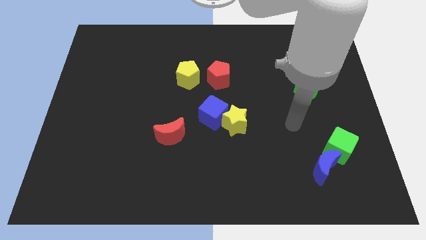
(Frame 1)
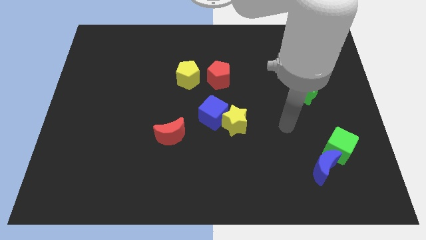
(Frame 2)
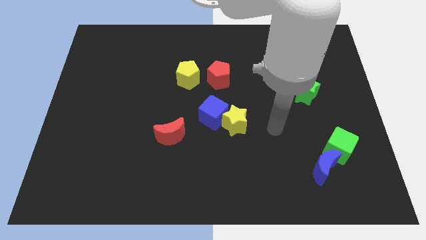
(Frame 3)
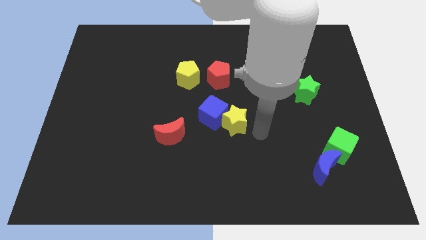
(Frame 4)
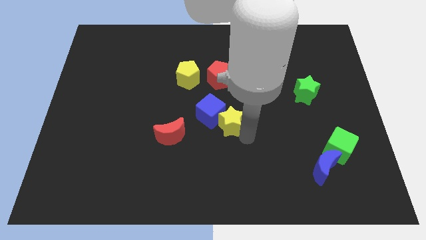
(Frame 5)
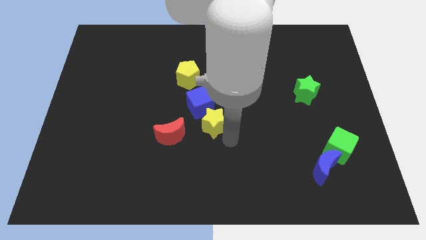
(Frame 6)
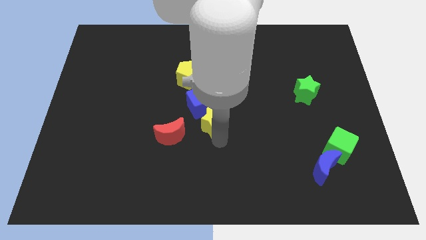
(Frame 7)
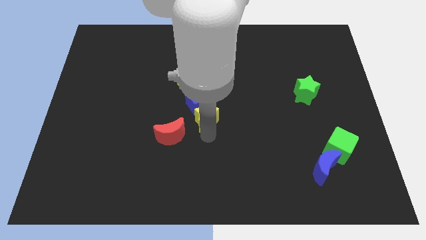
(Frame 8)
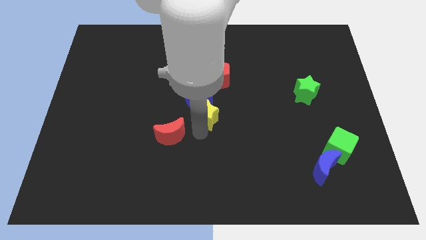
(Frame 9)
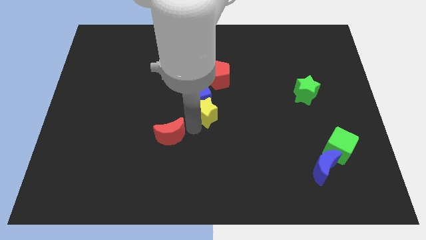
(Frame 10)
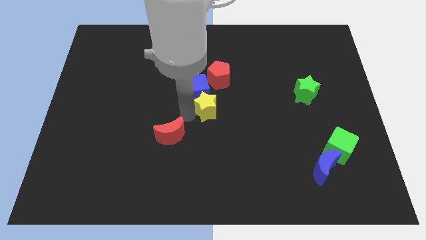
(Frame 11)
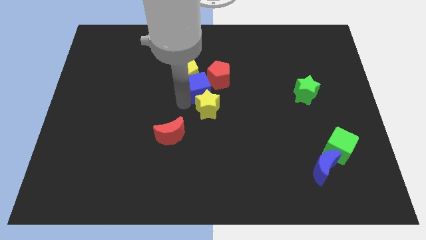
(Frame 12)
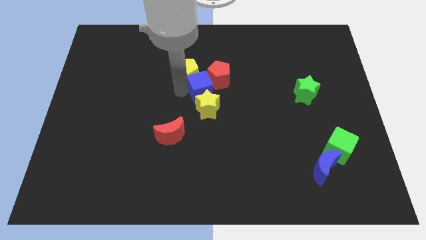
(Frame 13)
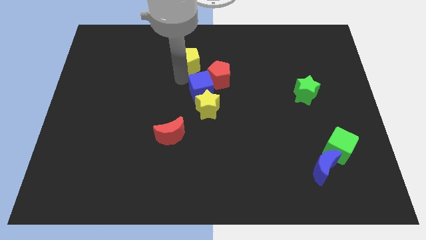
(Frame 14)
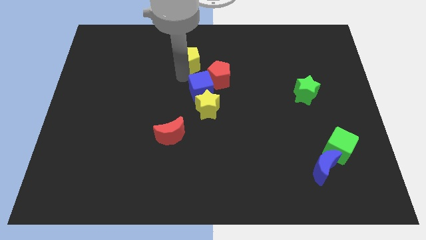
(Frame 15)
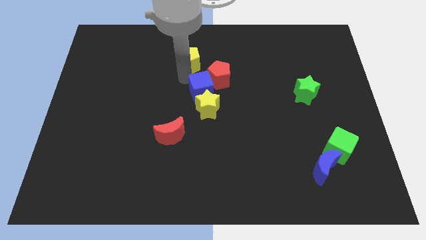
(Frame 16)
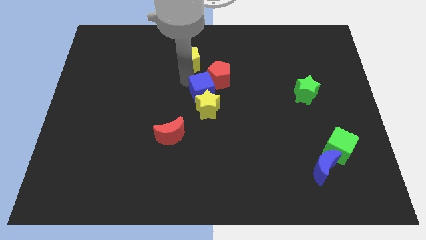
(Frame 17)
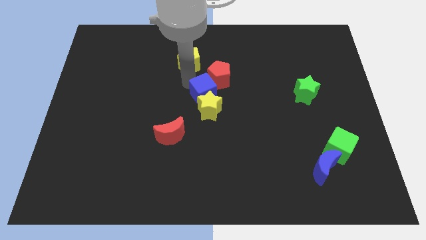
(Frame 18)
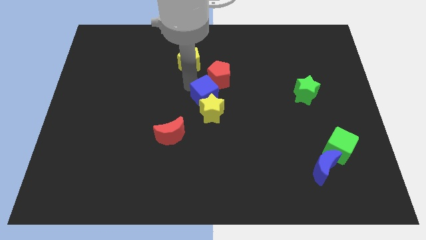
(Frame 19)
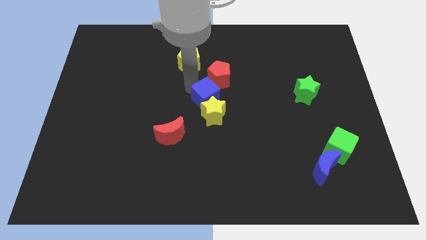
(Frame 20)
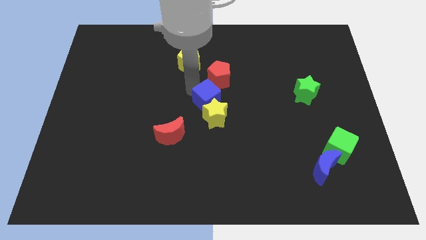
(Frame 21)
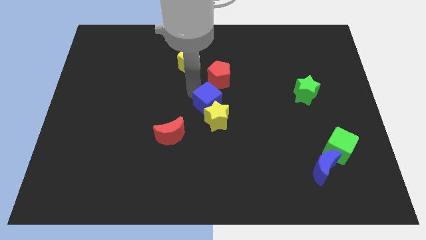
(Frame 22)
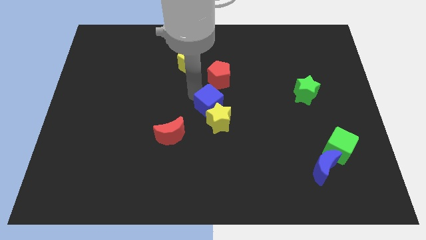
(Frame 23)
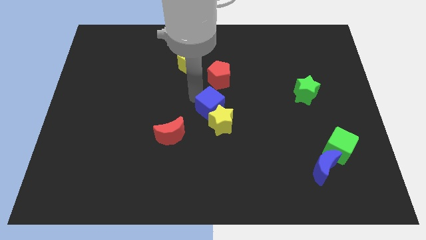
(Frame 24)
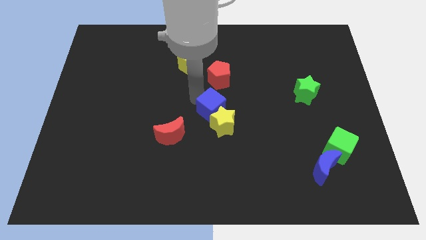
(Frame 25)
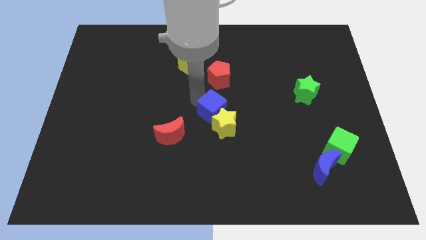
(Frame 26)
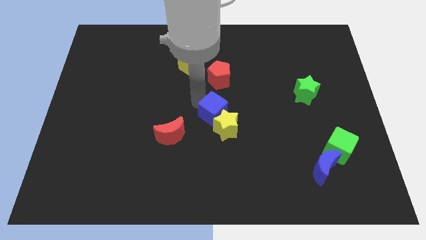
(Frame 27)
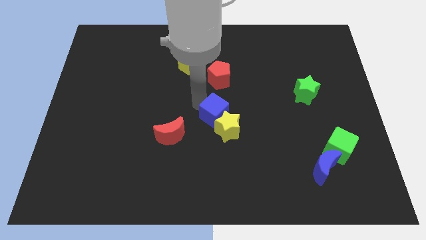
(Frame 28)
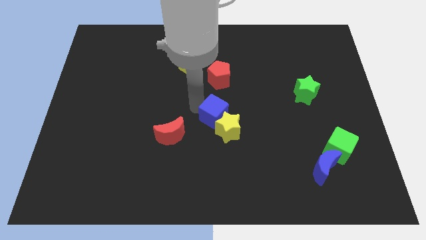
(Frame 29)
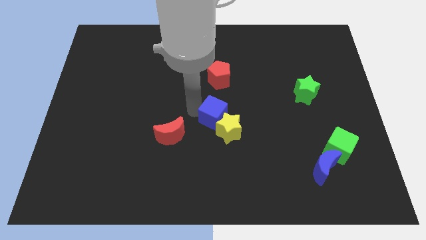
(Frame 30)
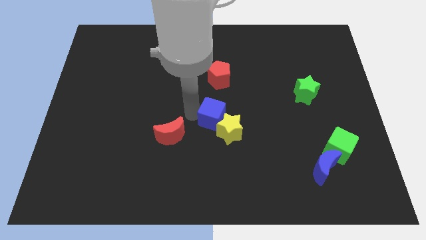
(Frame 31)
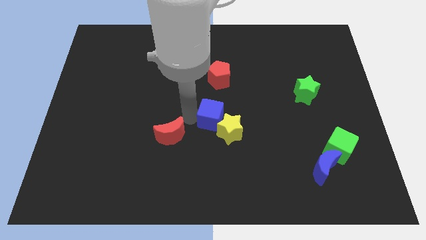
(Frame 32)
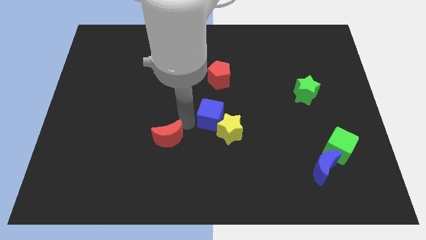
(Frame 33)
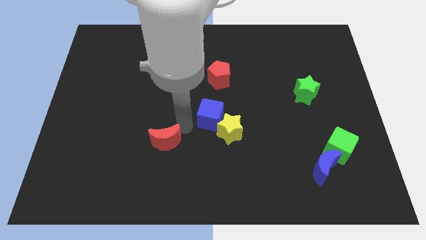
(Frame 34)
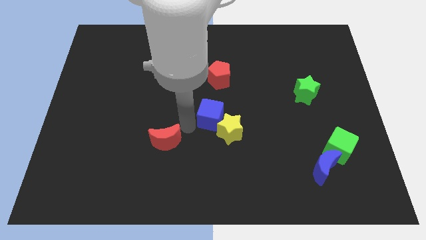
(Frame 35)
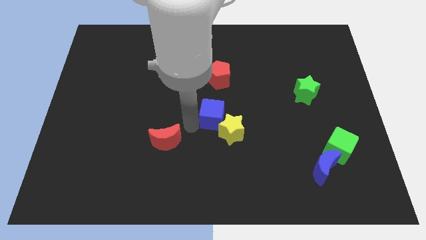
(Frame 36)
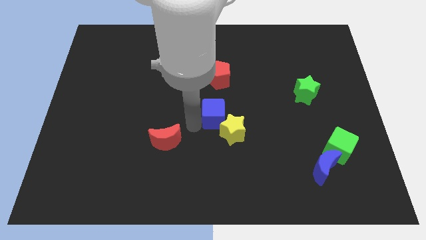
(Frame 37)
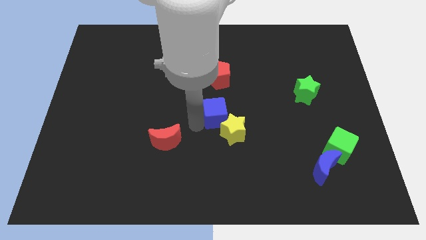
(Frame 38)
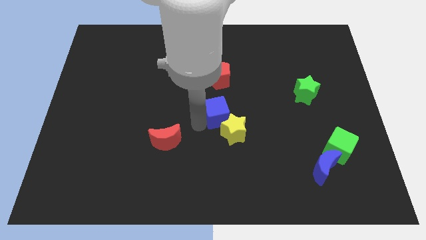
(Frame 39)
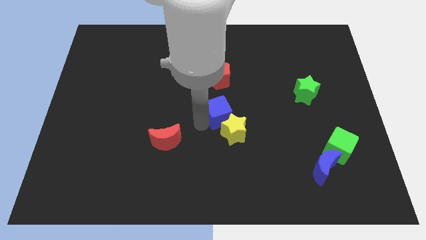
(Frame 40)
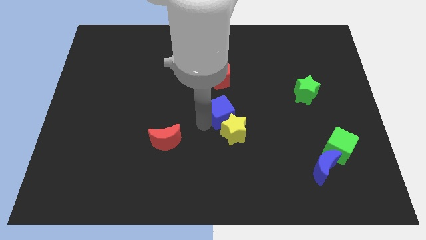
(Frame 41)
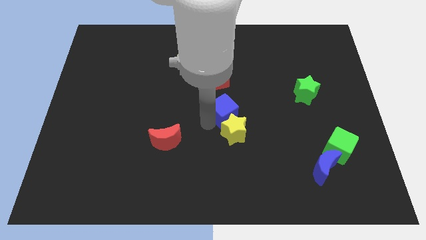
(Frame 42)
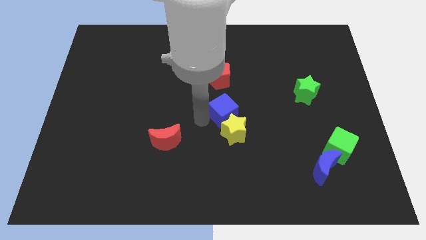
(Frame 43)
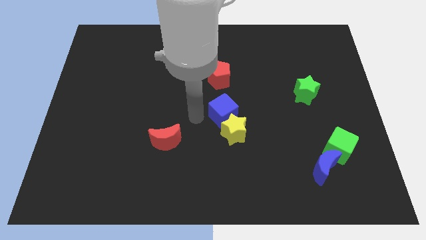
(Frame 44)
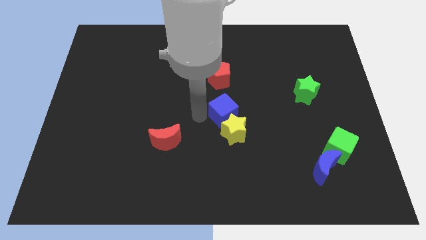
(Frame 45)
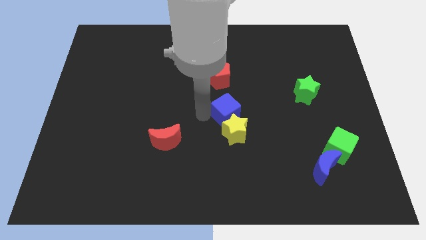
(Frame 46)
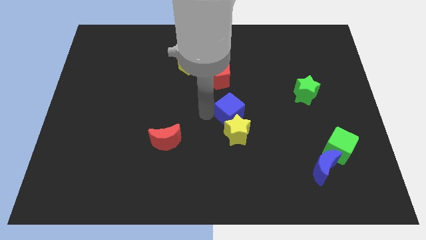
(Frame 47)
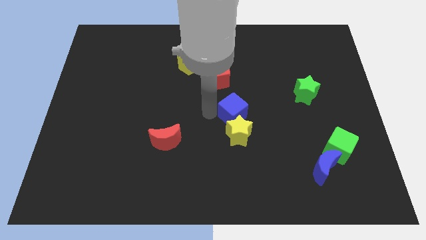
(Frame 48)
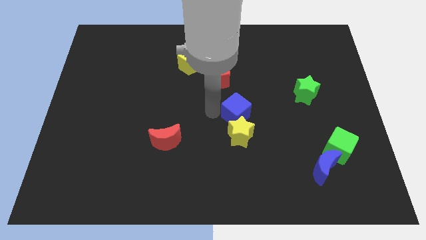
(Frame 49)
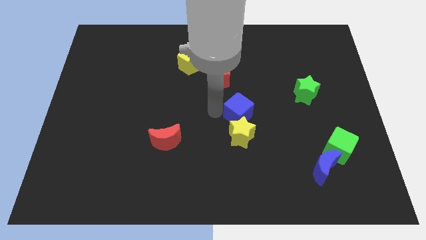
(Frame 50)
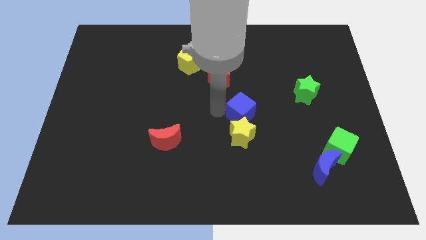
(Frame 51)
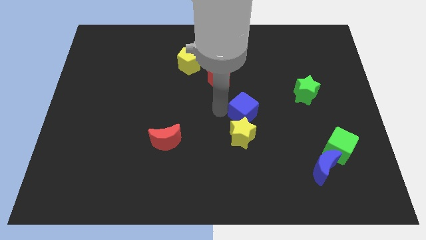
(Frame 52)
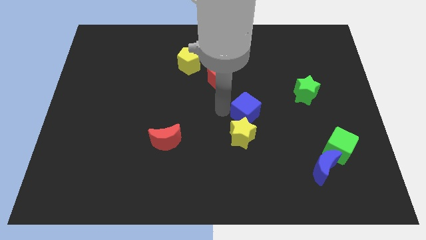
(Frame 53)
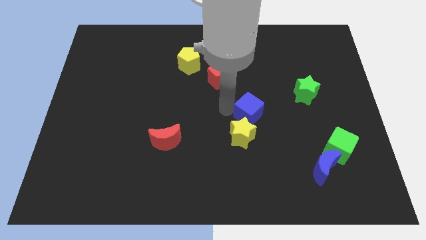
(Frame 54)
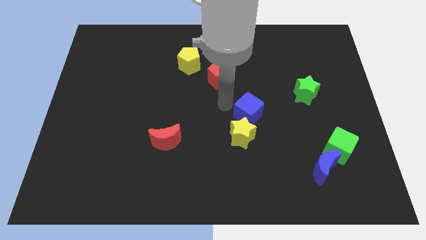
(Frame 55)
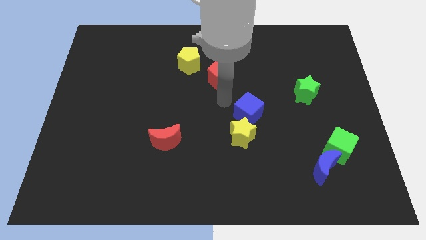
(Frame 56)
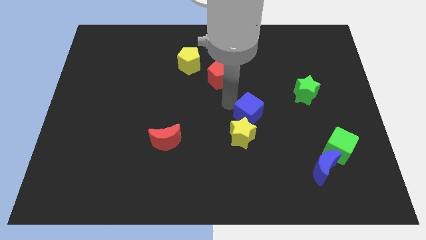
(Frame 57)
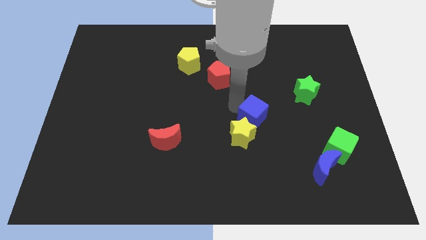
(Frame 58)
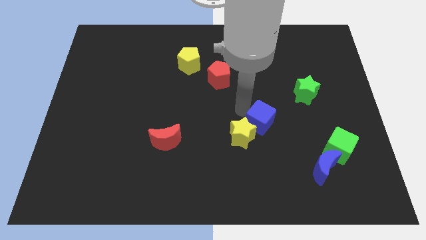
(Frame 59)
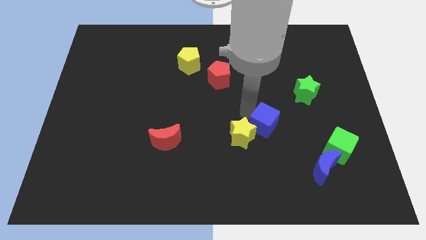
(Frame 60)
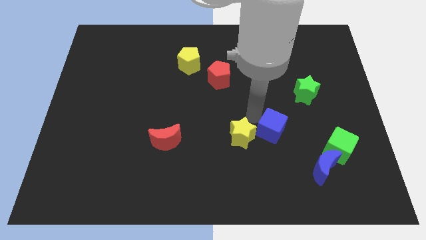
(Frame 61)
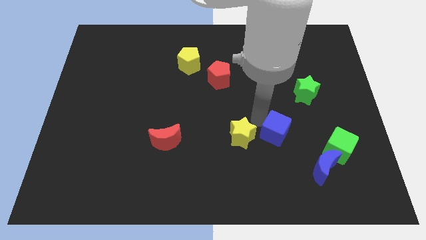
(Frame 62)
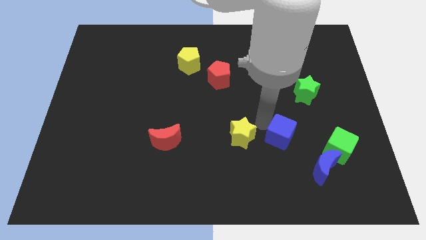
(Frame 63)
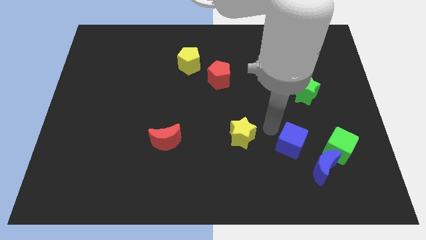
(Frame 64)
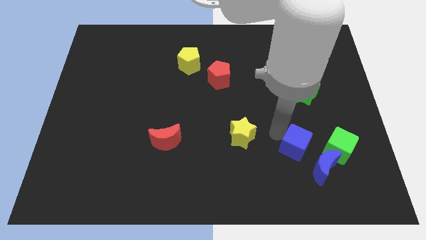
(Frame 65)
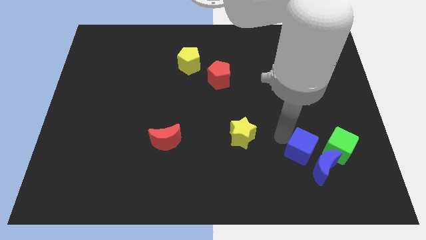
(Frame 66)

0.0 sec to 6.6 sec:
put the blue cube close to the blue moon
